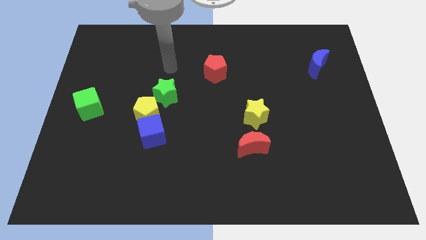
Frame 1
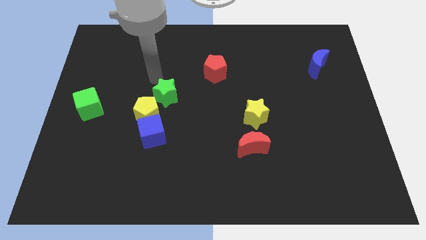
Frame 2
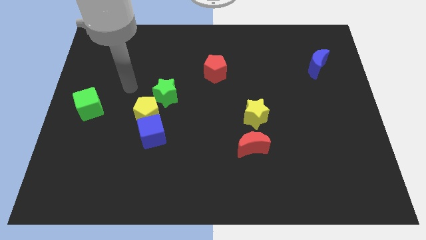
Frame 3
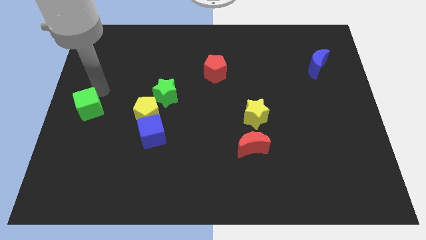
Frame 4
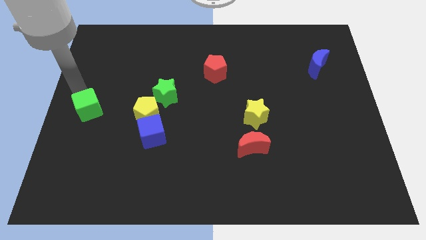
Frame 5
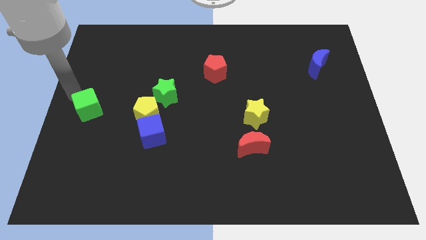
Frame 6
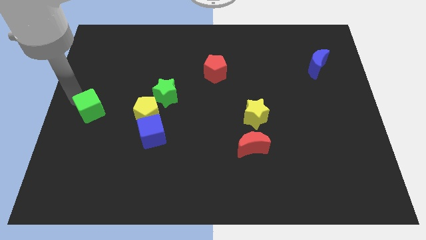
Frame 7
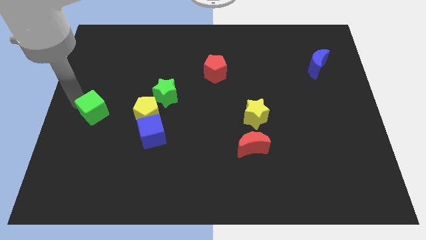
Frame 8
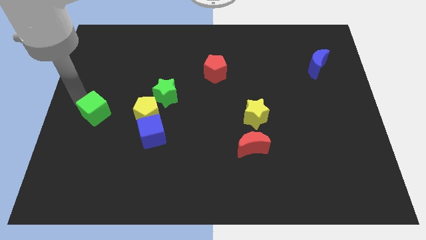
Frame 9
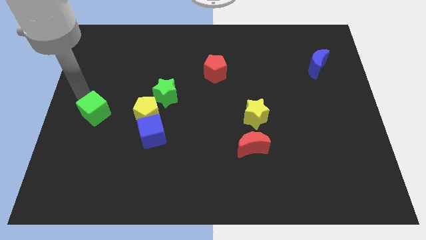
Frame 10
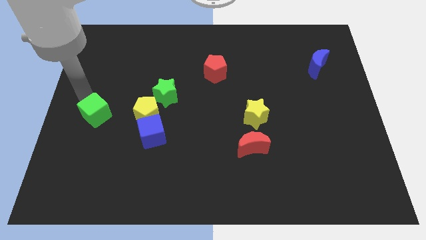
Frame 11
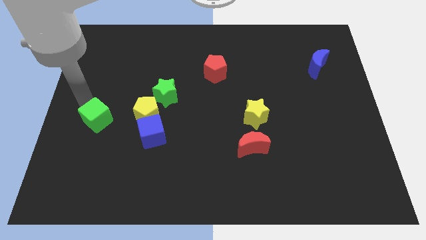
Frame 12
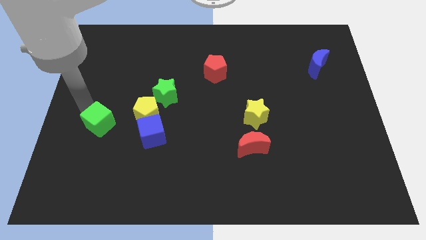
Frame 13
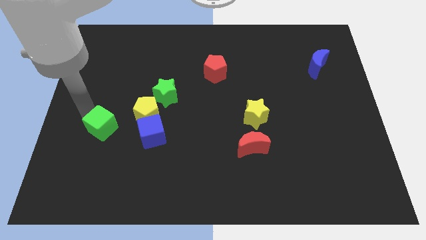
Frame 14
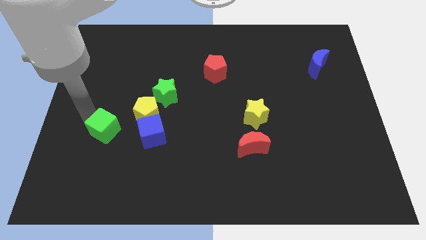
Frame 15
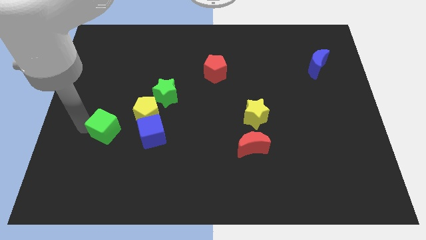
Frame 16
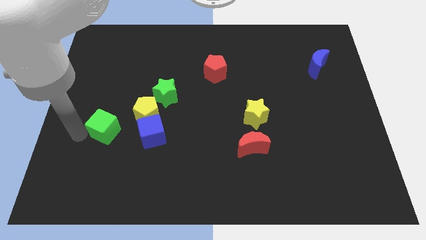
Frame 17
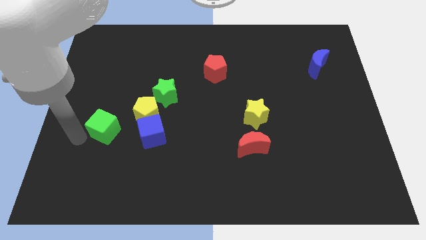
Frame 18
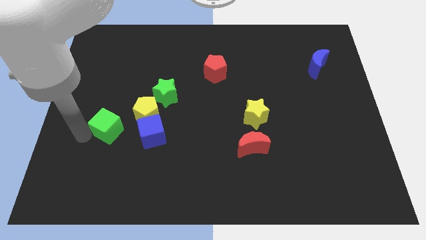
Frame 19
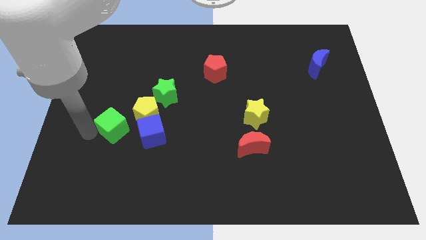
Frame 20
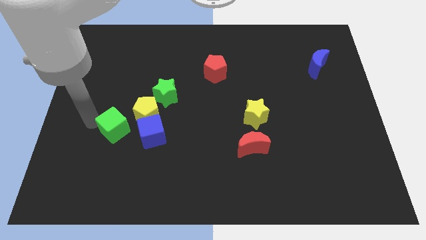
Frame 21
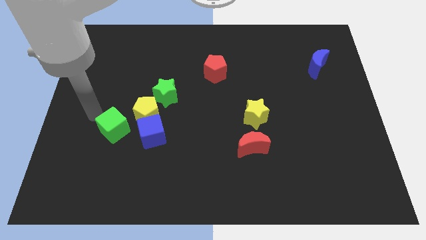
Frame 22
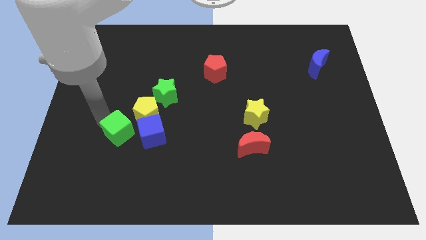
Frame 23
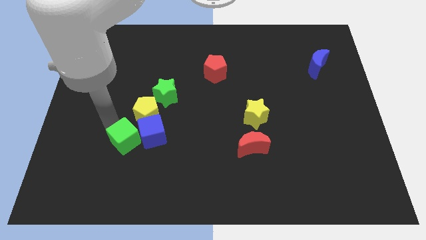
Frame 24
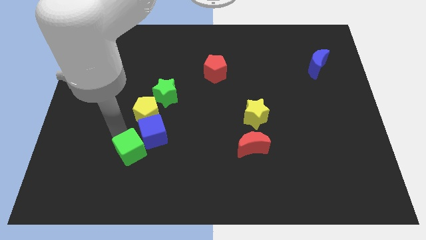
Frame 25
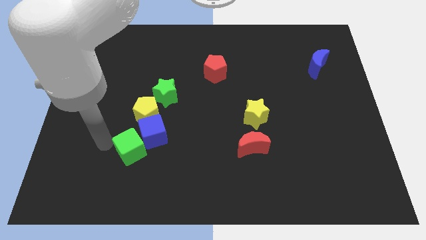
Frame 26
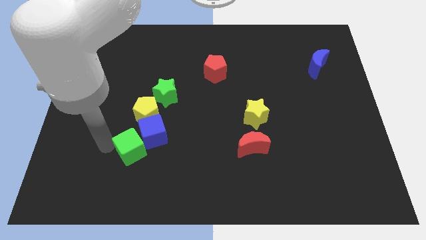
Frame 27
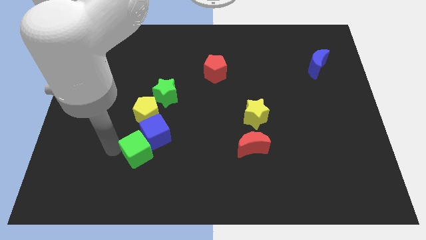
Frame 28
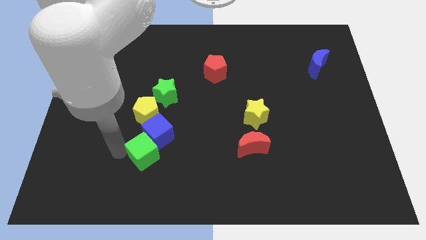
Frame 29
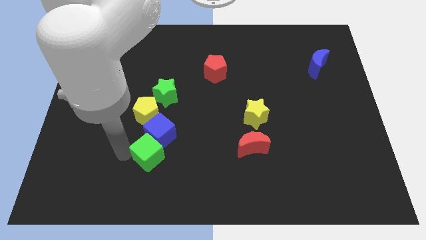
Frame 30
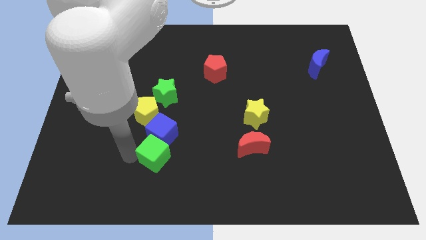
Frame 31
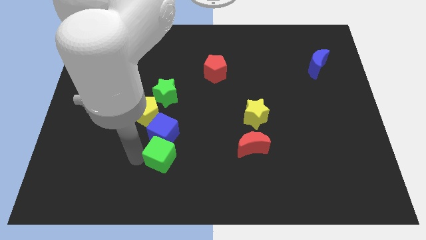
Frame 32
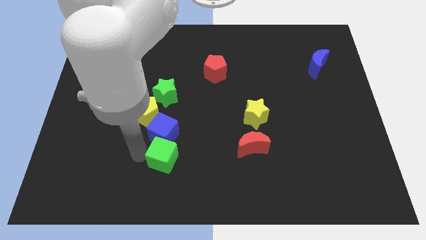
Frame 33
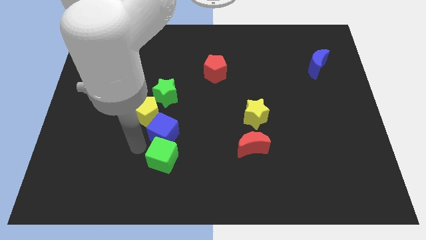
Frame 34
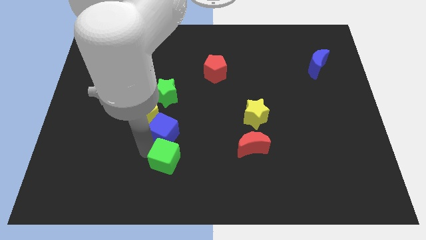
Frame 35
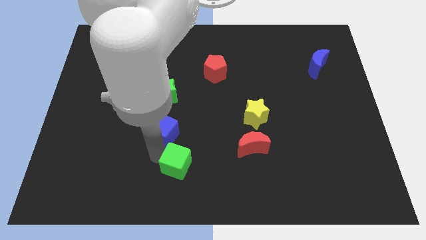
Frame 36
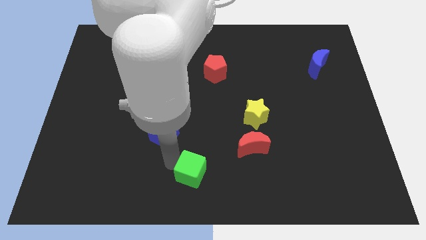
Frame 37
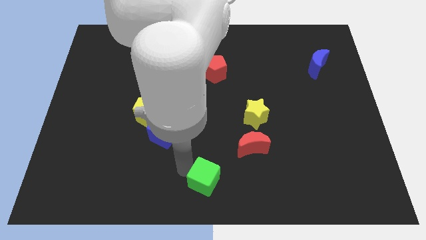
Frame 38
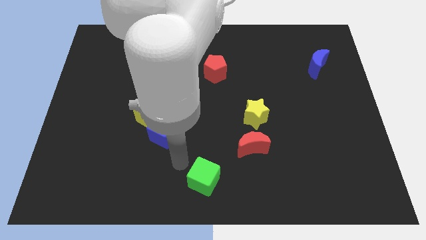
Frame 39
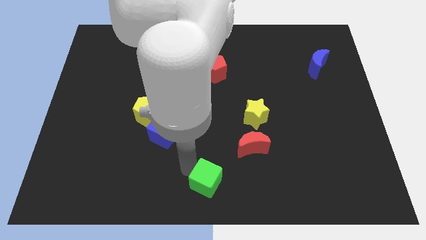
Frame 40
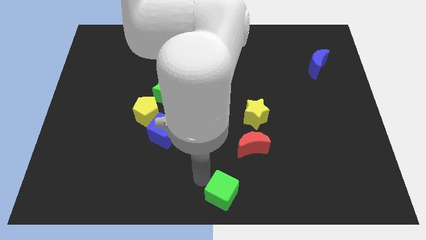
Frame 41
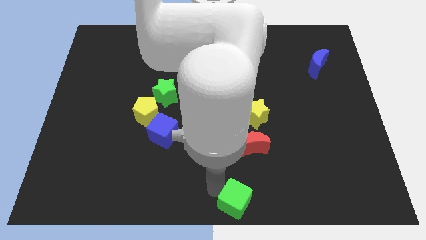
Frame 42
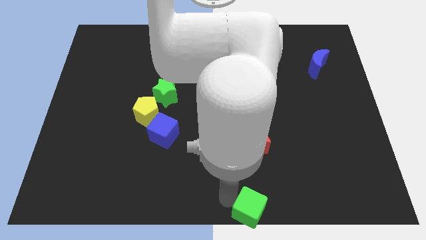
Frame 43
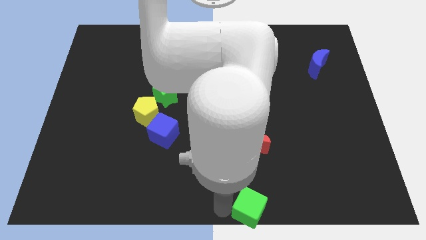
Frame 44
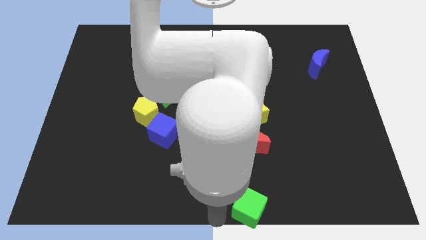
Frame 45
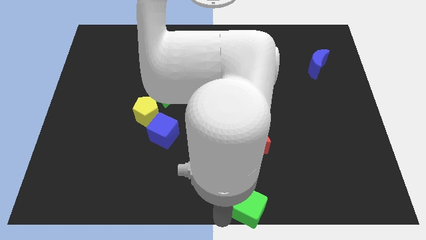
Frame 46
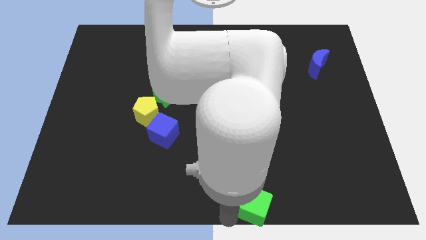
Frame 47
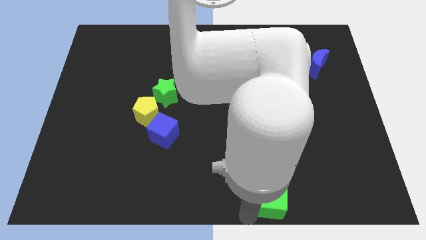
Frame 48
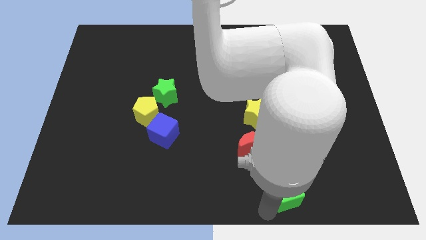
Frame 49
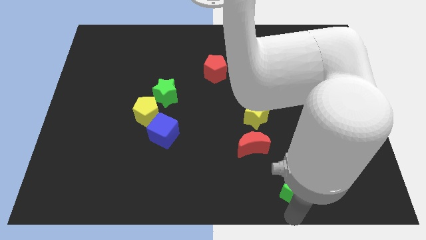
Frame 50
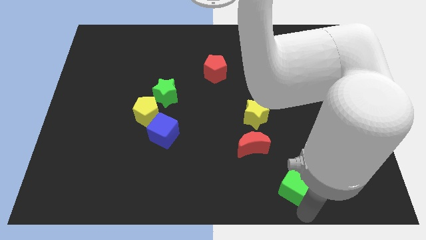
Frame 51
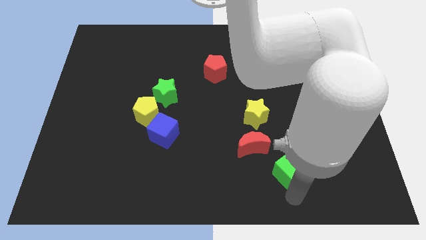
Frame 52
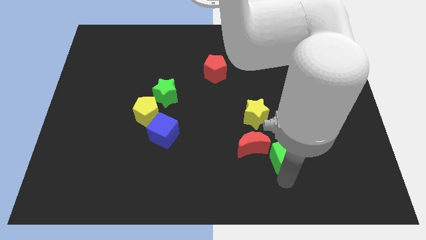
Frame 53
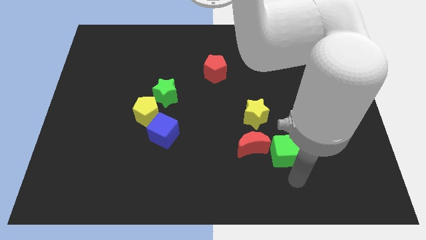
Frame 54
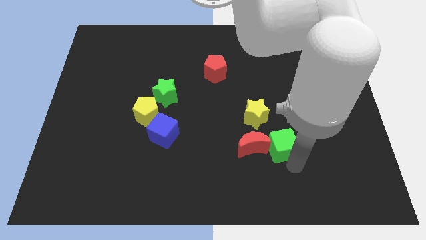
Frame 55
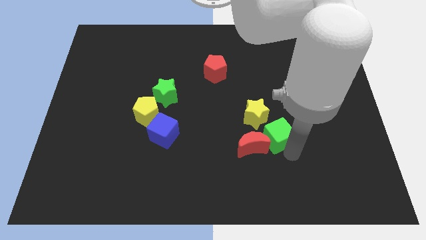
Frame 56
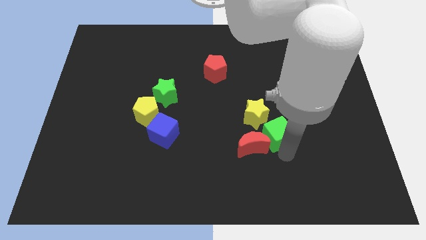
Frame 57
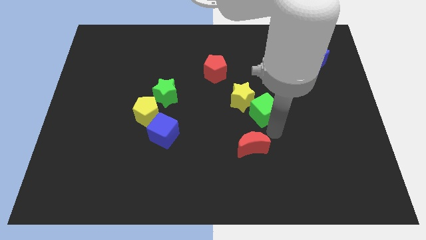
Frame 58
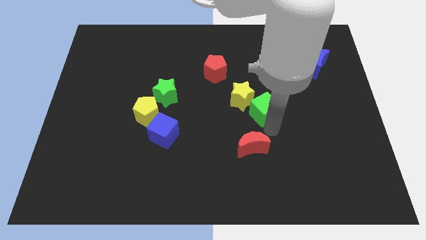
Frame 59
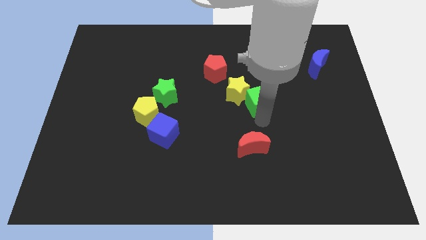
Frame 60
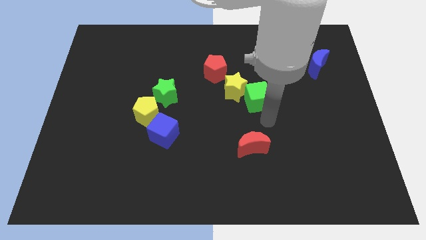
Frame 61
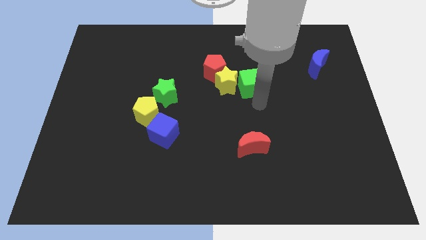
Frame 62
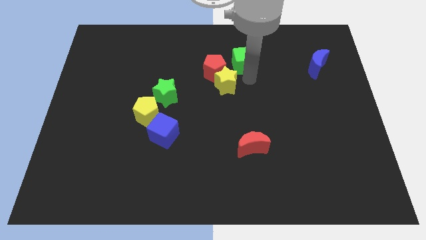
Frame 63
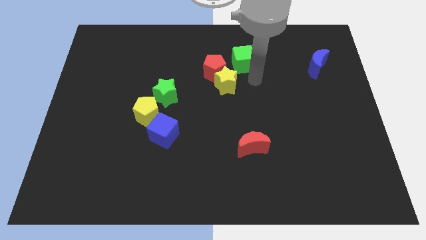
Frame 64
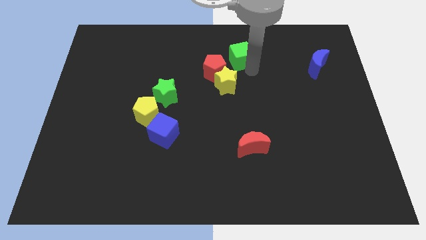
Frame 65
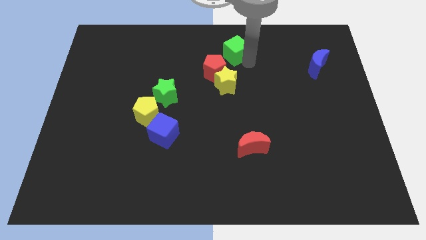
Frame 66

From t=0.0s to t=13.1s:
put the green cube to the top
